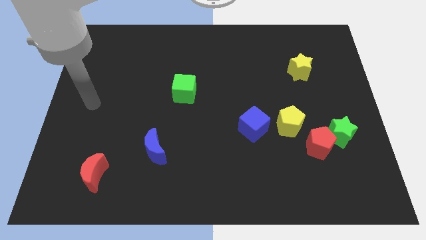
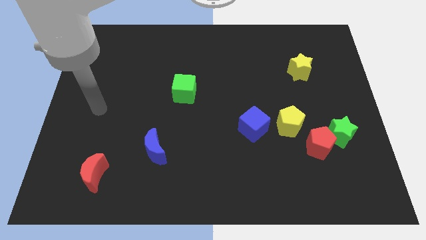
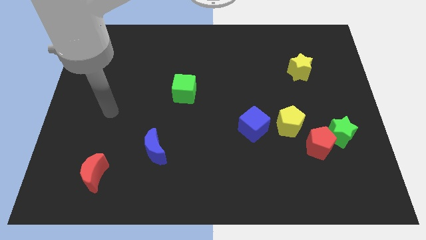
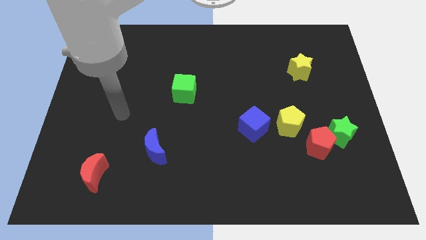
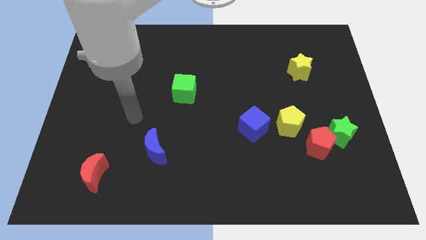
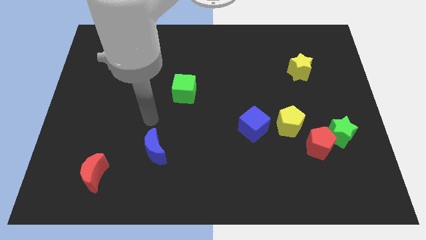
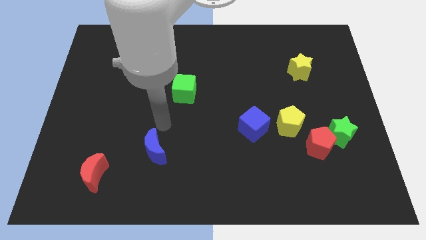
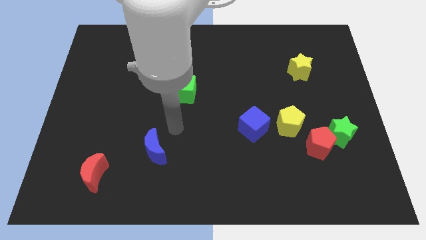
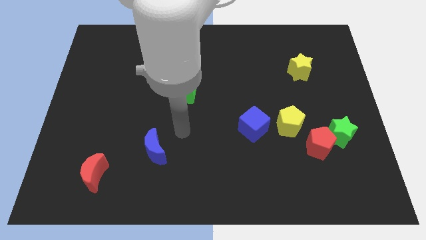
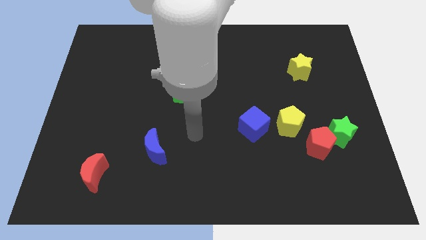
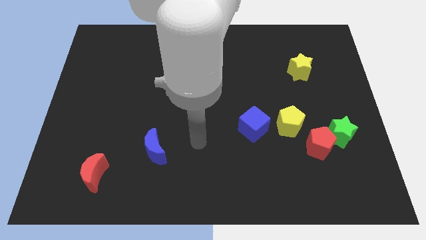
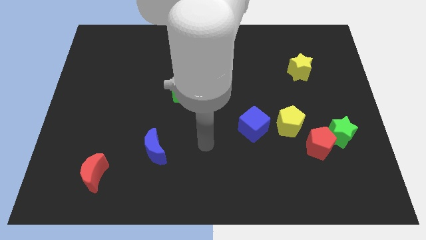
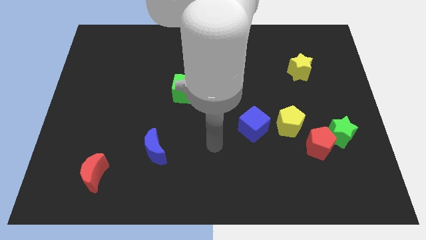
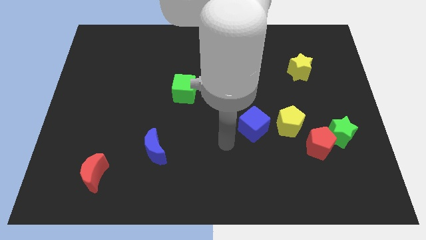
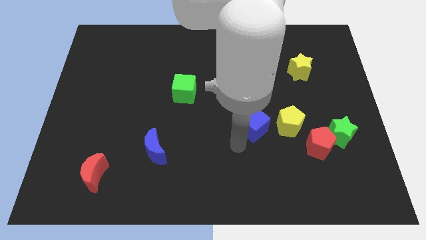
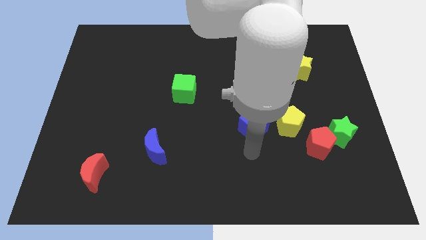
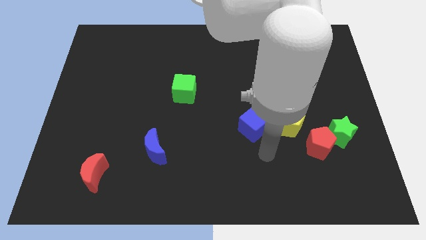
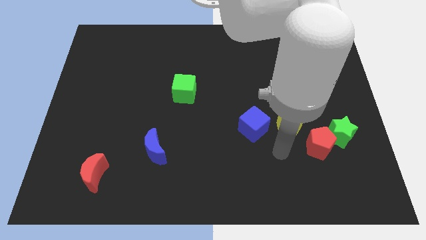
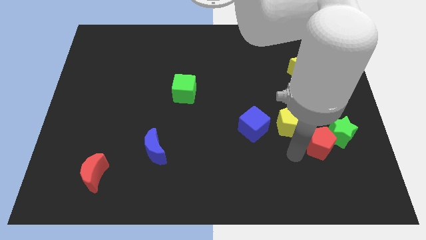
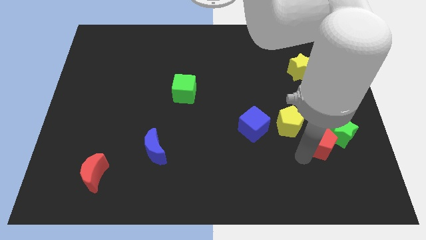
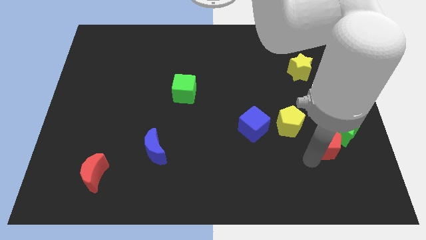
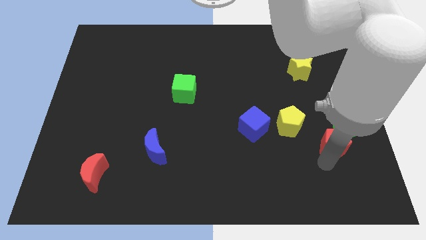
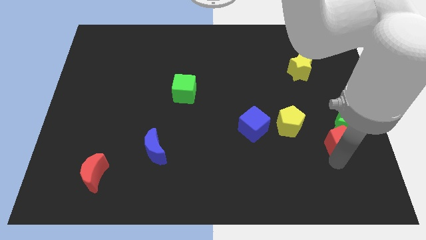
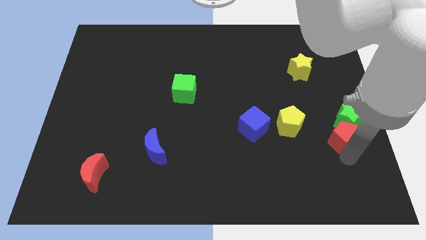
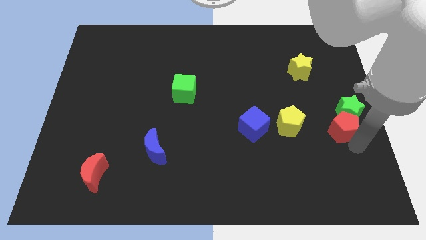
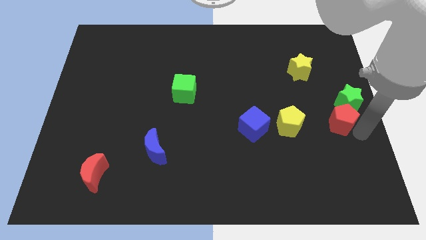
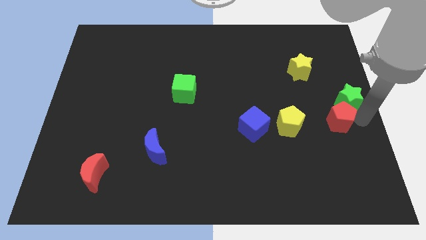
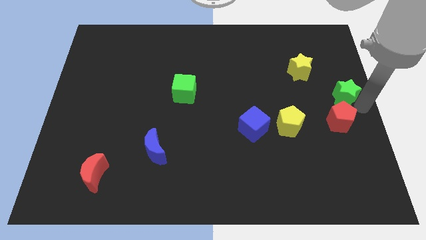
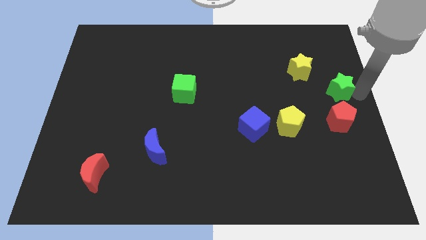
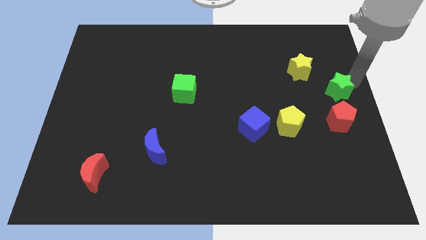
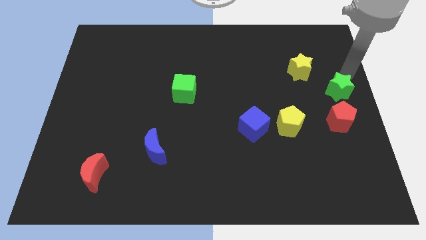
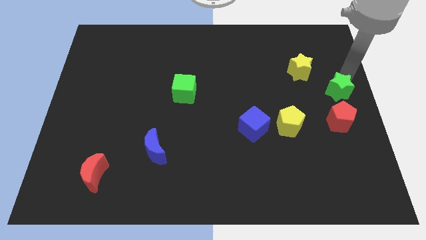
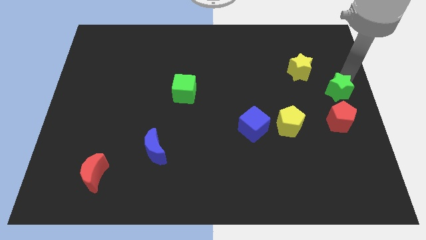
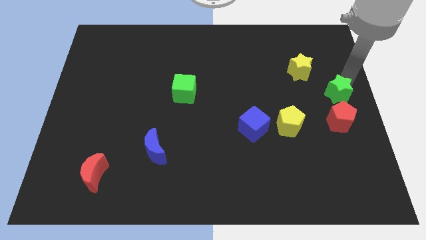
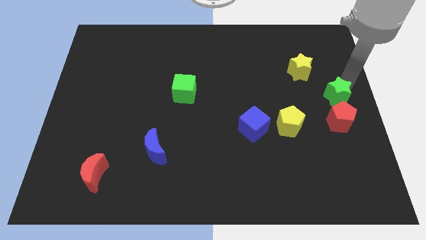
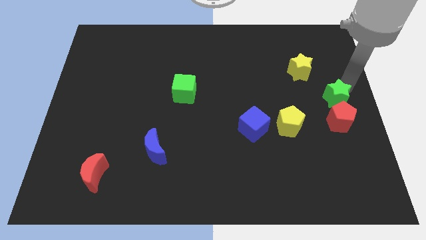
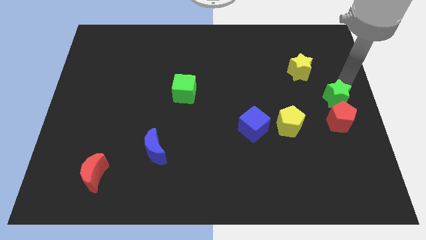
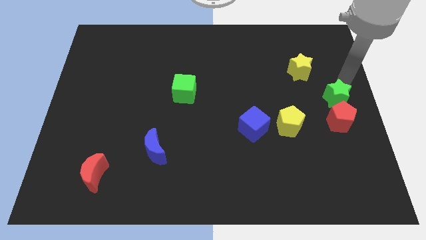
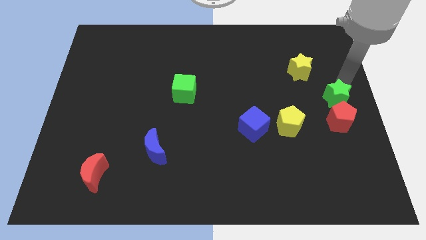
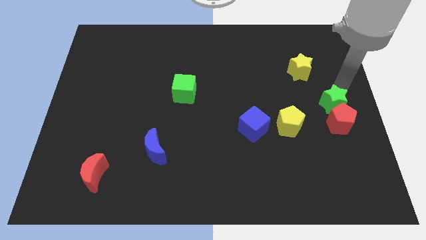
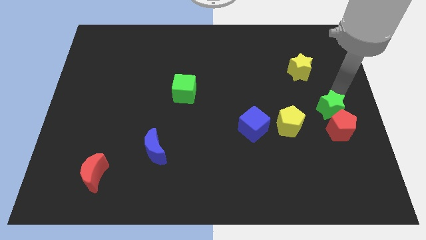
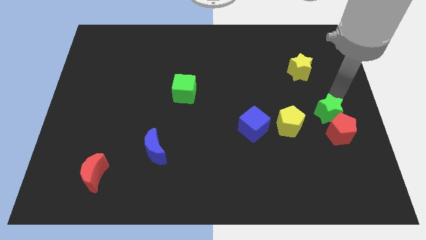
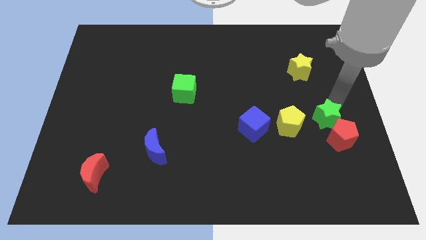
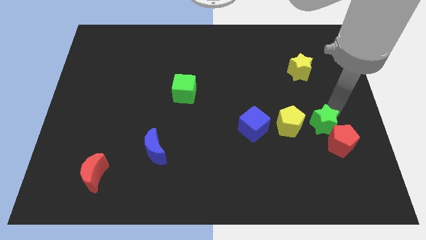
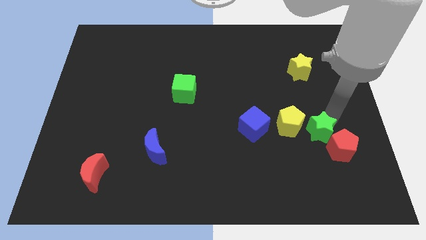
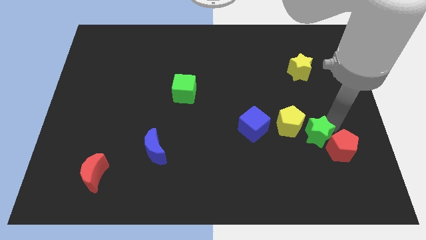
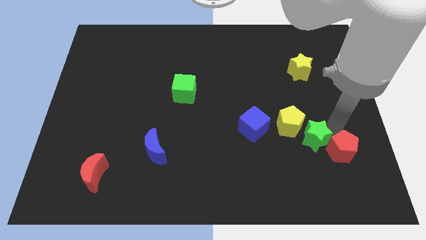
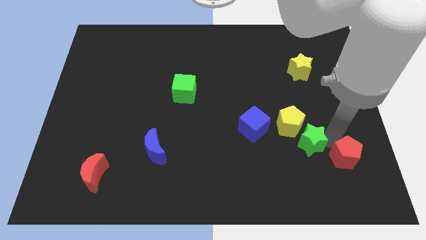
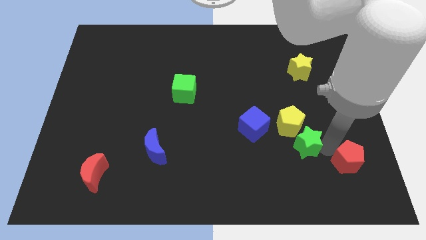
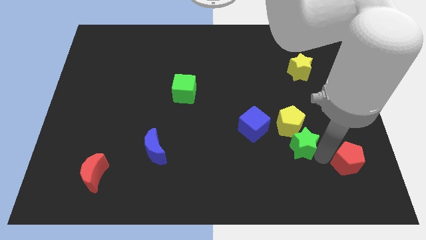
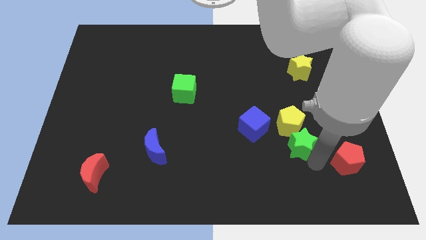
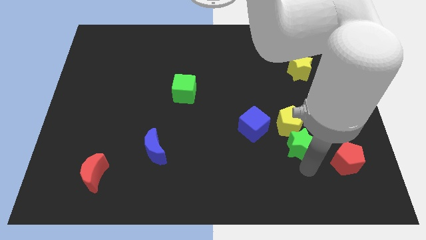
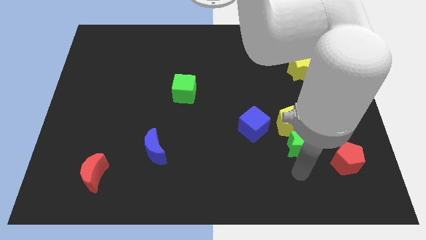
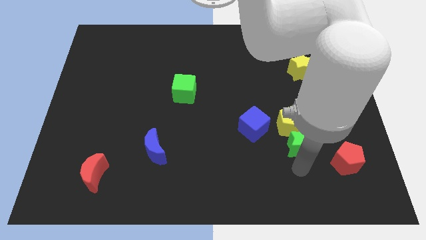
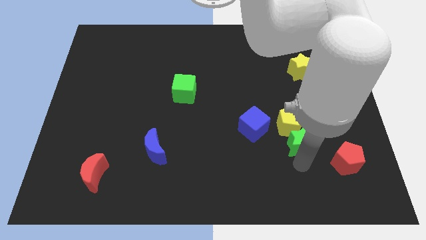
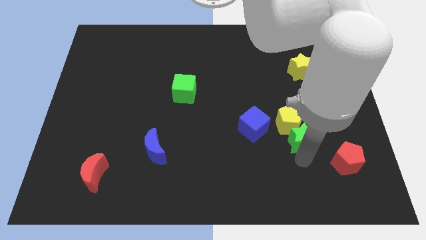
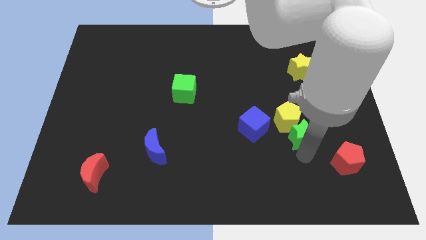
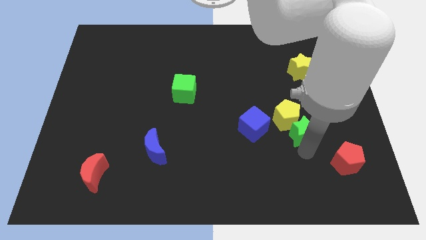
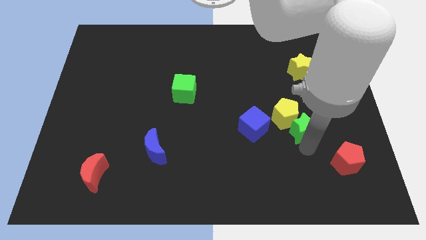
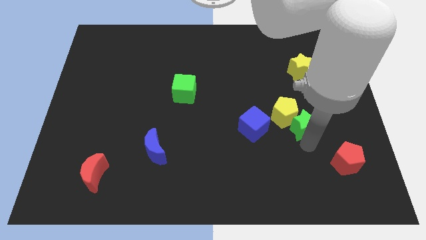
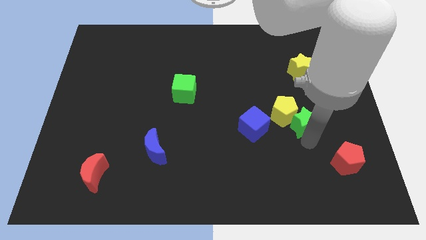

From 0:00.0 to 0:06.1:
move the green star somewhat diagonally upwards and to the left

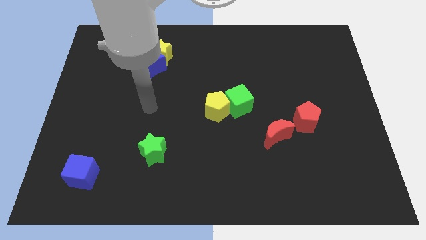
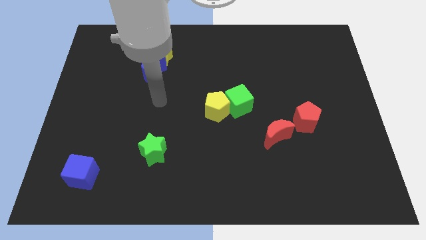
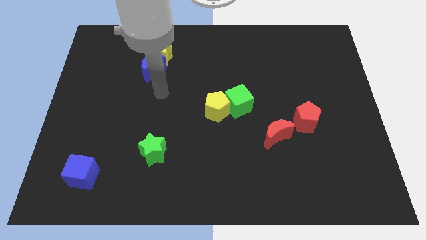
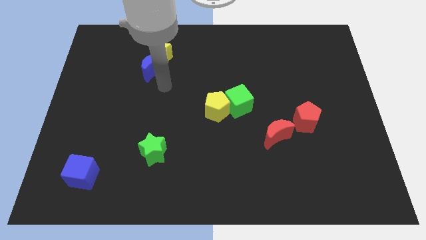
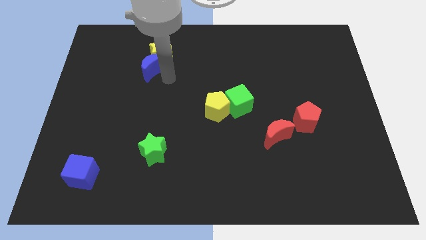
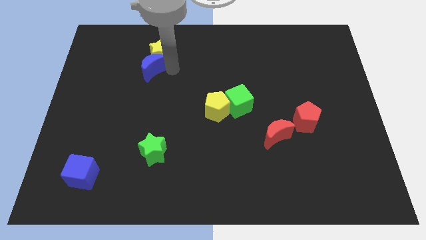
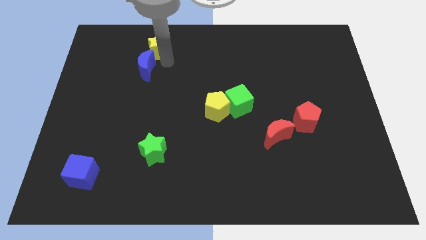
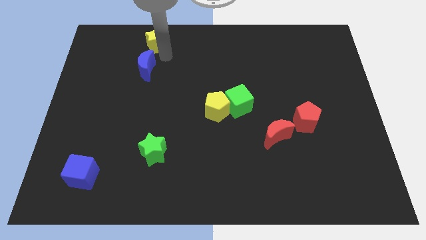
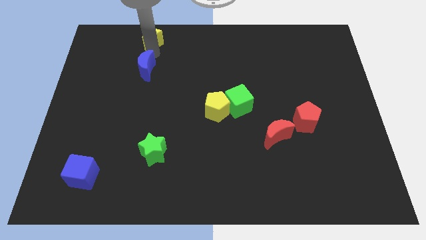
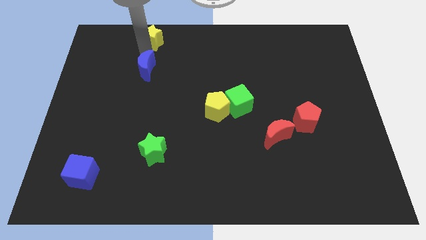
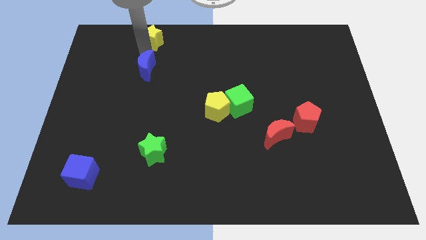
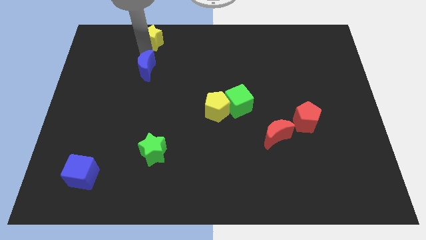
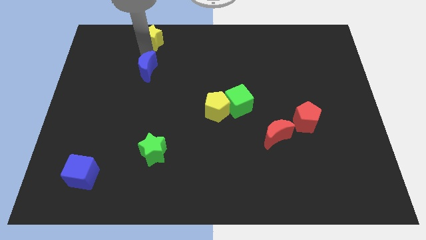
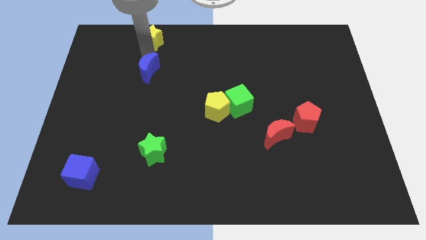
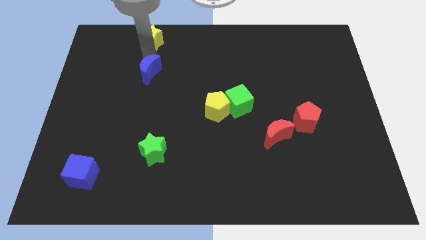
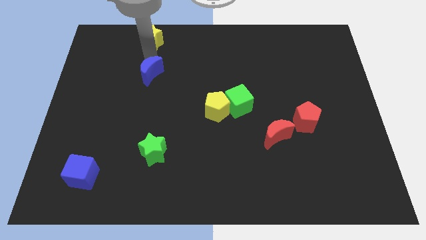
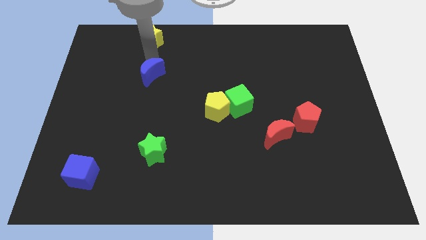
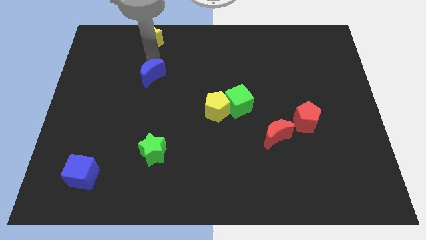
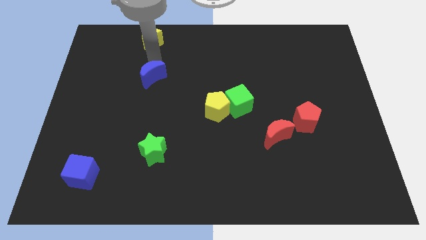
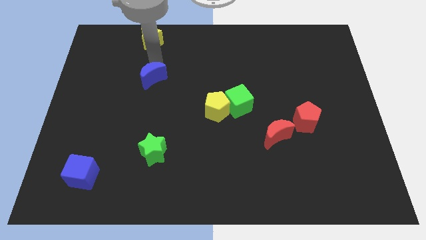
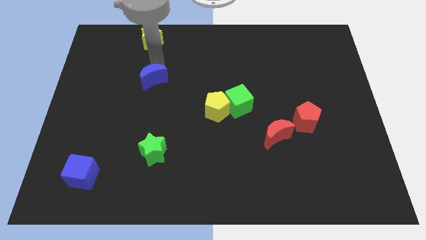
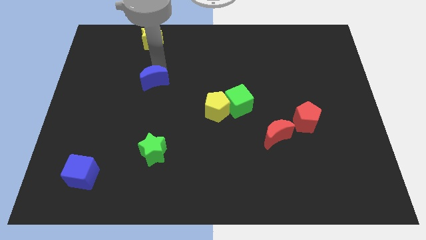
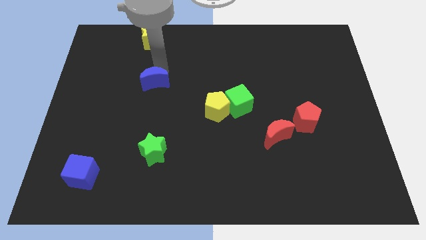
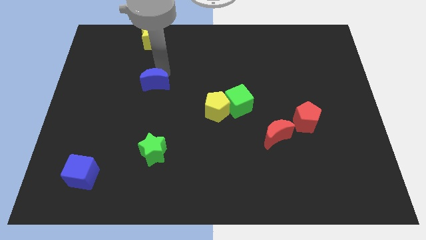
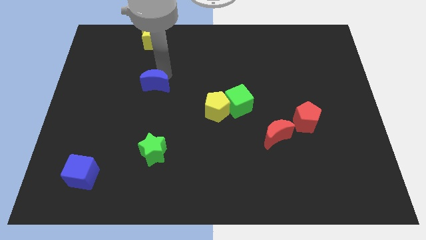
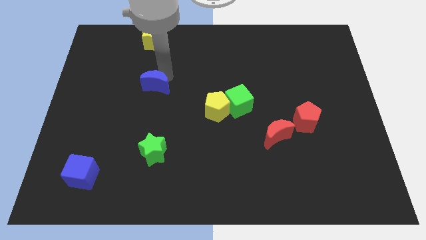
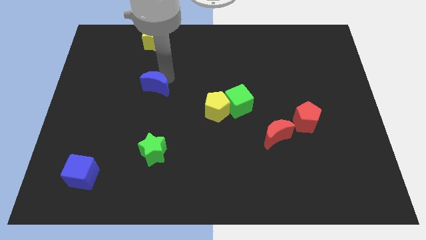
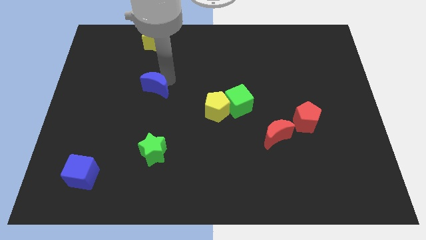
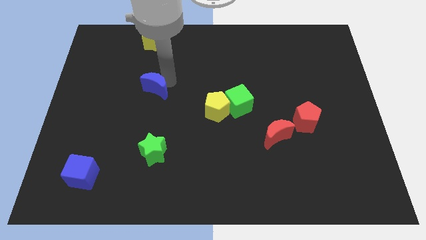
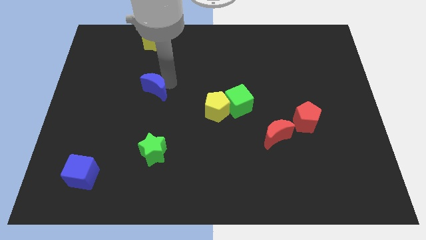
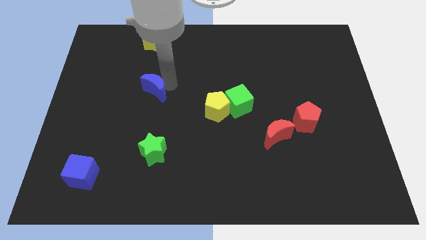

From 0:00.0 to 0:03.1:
slightly move the blue moon downwards
